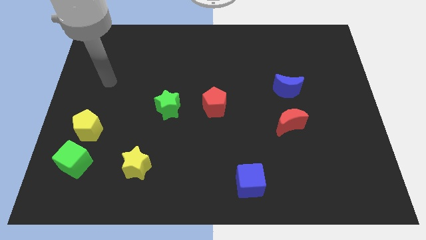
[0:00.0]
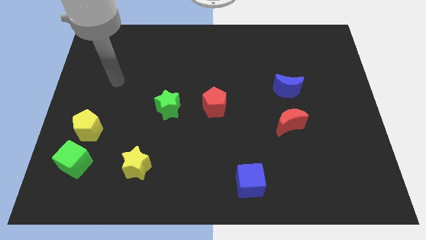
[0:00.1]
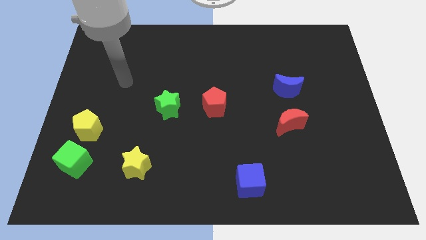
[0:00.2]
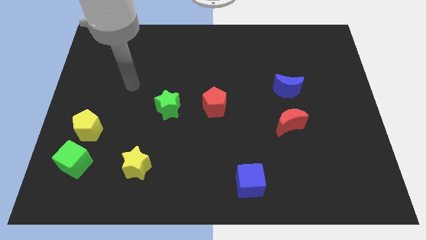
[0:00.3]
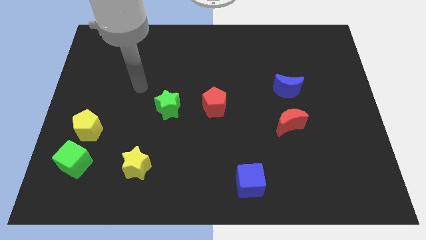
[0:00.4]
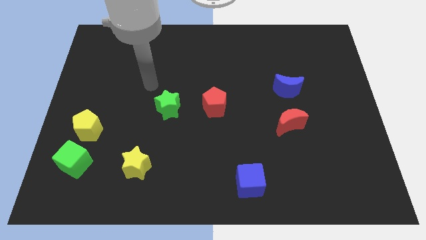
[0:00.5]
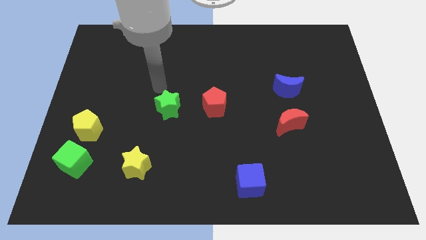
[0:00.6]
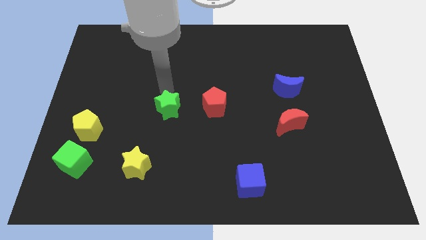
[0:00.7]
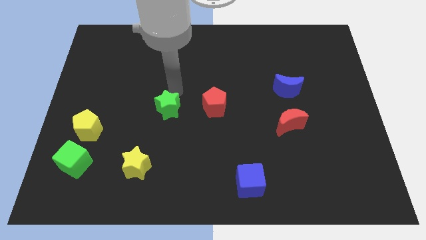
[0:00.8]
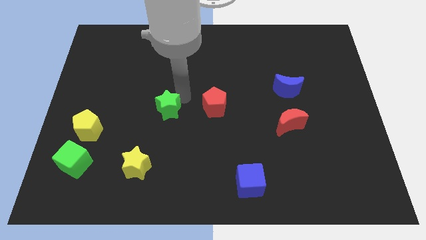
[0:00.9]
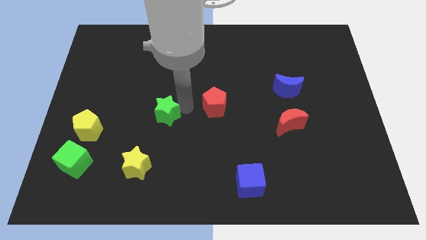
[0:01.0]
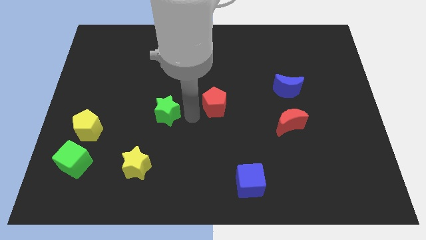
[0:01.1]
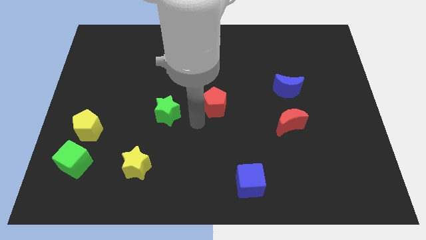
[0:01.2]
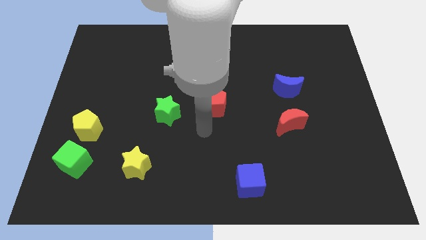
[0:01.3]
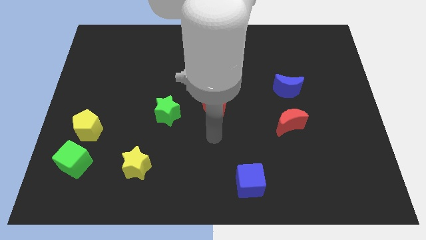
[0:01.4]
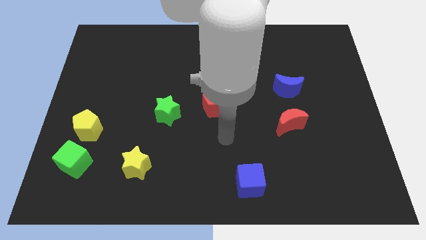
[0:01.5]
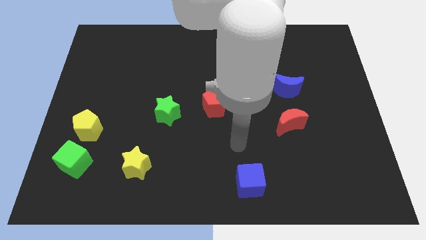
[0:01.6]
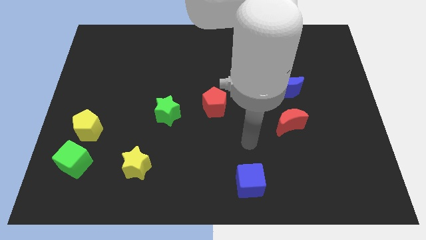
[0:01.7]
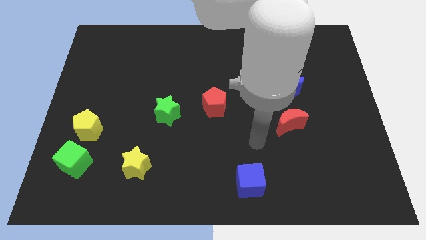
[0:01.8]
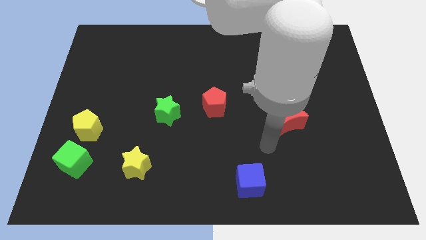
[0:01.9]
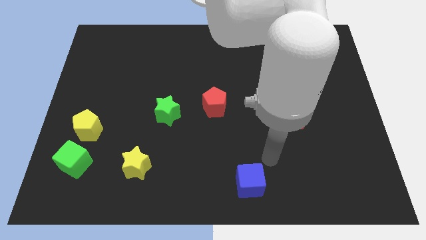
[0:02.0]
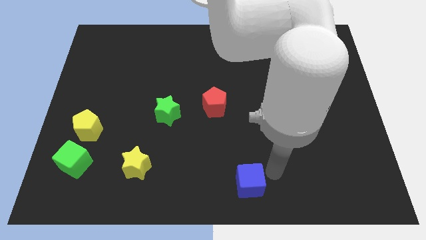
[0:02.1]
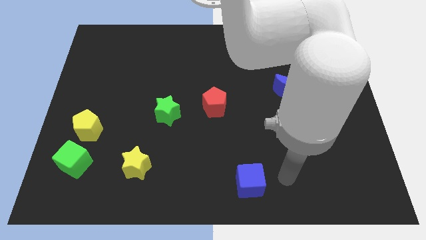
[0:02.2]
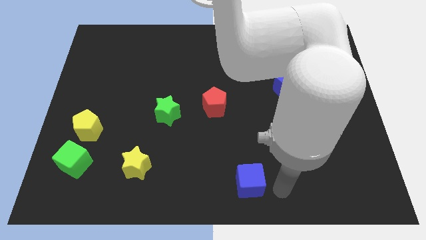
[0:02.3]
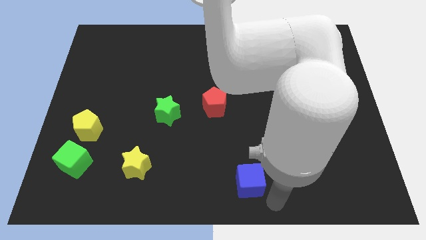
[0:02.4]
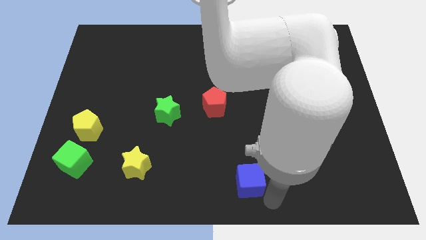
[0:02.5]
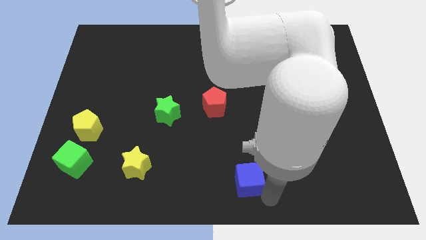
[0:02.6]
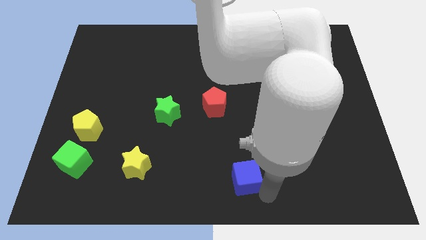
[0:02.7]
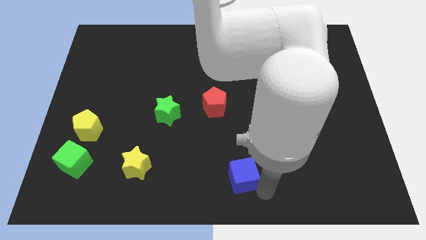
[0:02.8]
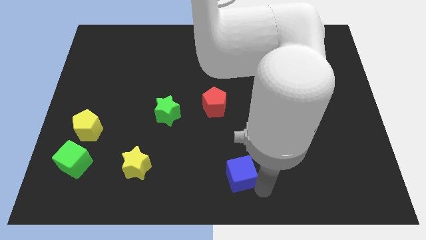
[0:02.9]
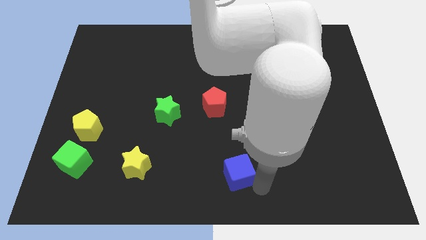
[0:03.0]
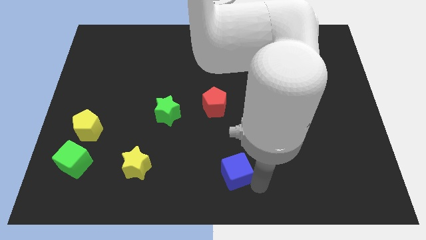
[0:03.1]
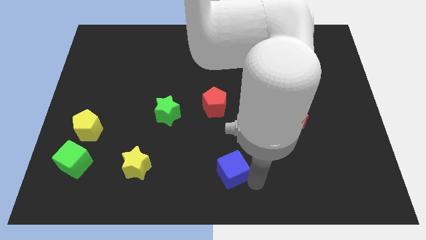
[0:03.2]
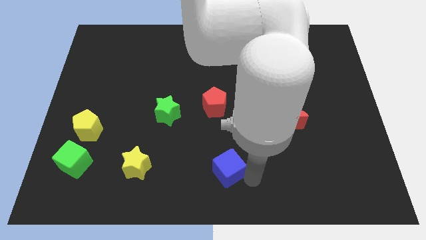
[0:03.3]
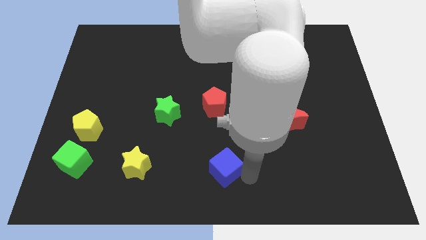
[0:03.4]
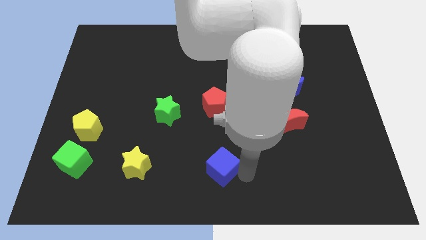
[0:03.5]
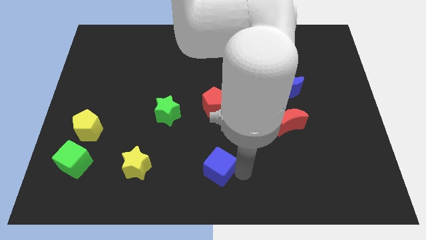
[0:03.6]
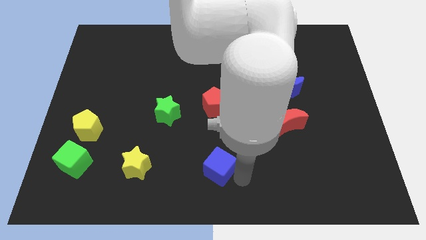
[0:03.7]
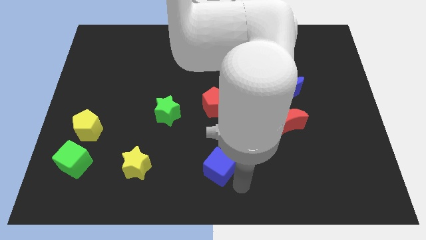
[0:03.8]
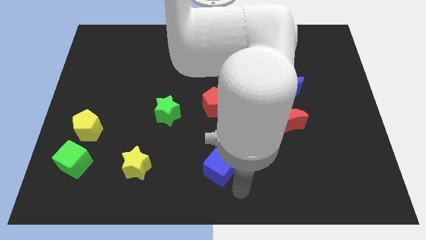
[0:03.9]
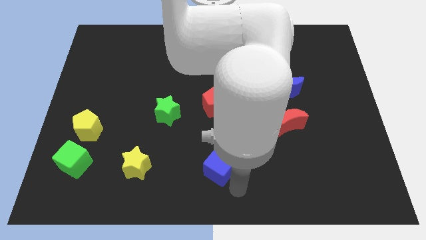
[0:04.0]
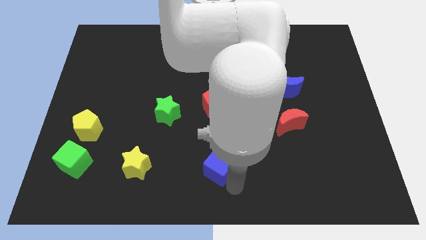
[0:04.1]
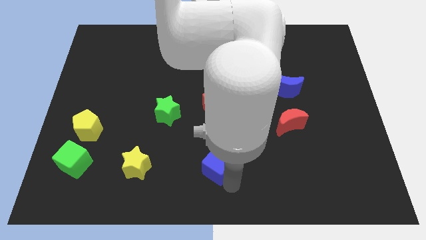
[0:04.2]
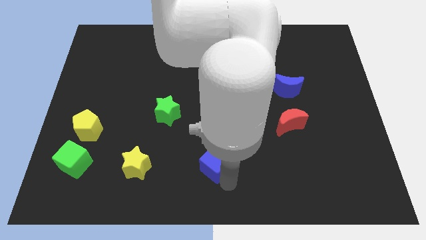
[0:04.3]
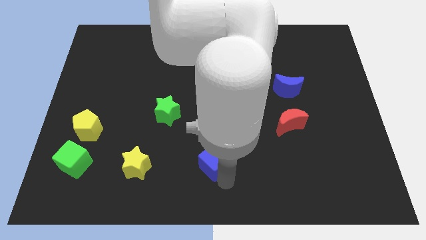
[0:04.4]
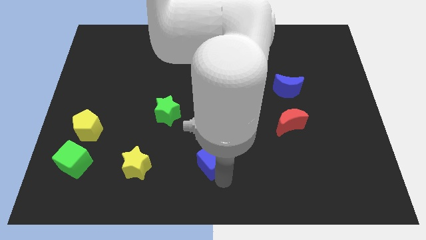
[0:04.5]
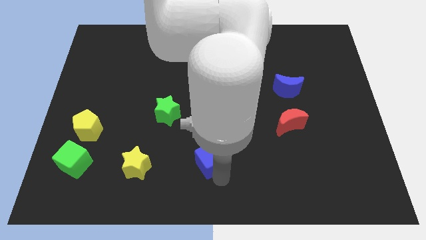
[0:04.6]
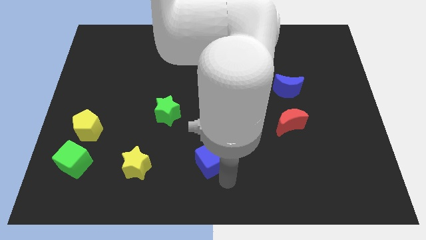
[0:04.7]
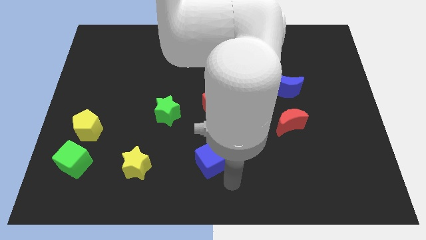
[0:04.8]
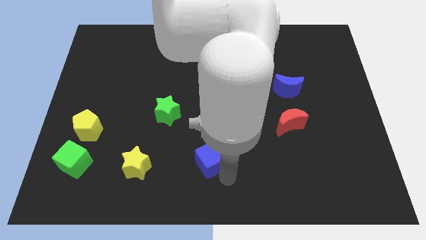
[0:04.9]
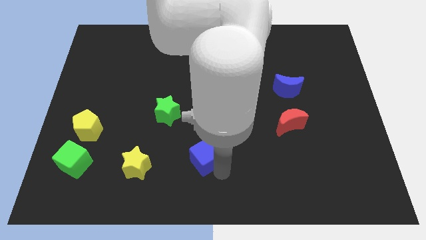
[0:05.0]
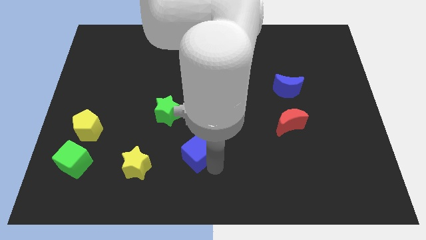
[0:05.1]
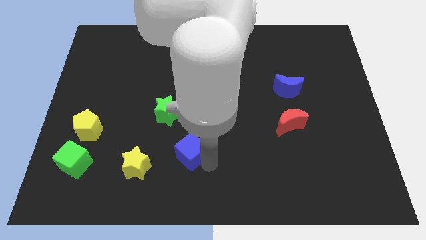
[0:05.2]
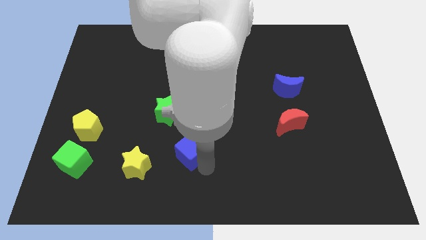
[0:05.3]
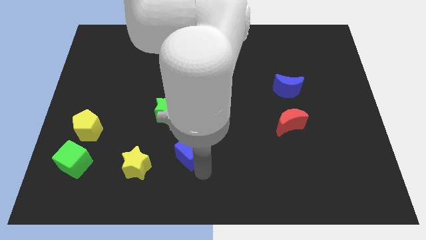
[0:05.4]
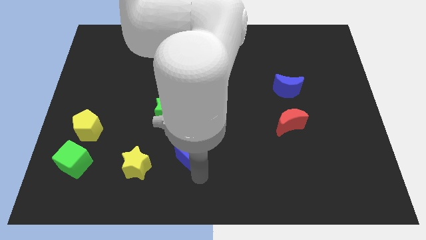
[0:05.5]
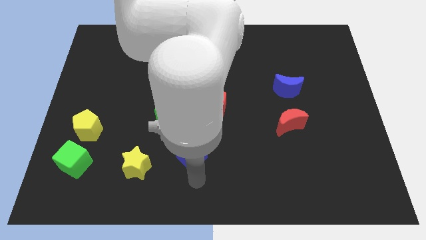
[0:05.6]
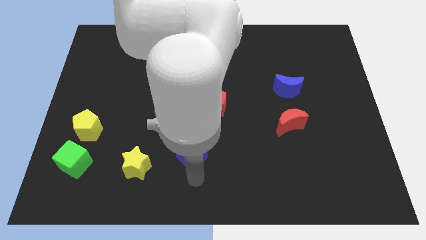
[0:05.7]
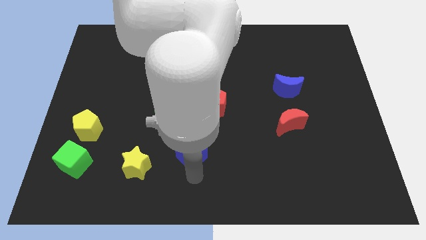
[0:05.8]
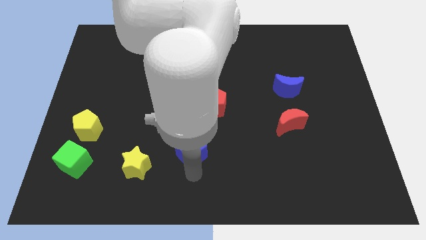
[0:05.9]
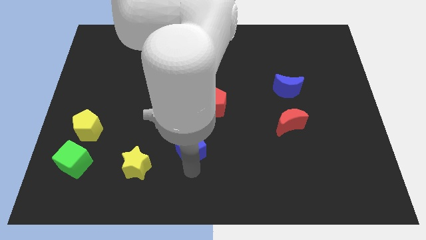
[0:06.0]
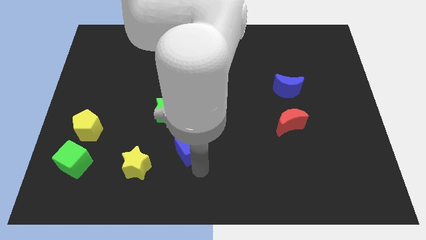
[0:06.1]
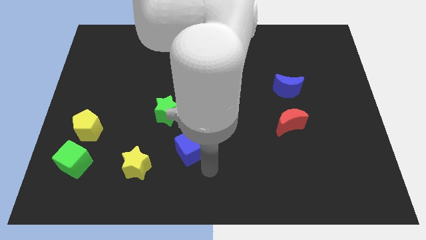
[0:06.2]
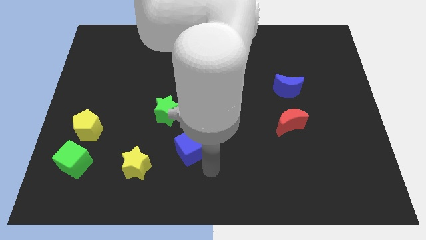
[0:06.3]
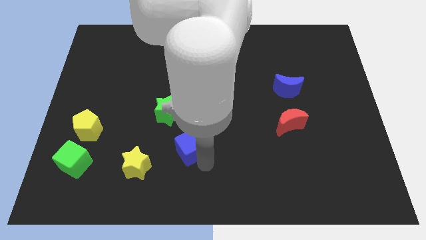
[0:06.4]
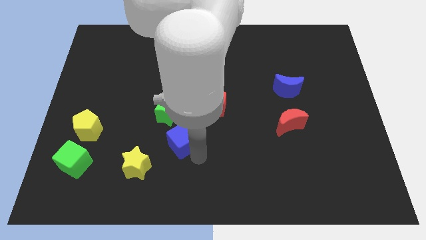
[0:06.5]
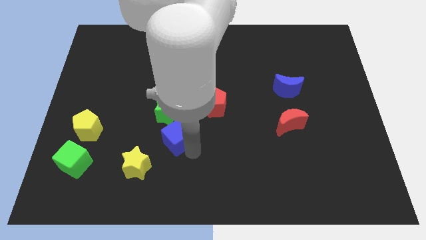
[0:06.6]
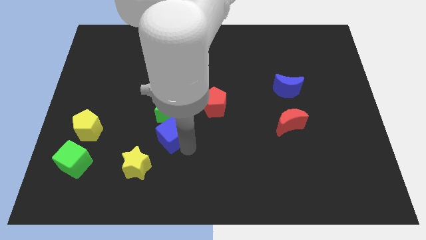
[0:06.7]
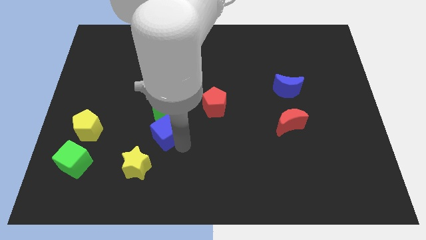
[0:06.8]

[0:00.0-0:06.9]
move the blue cube diagonally upwards and left

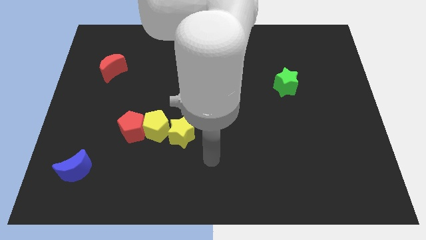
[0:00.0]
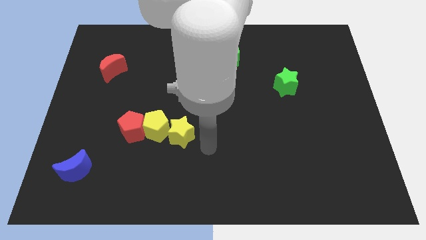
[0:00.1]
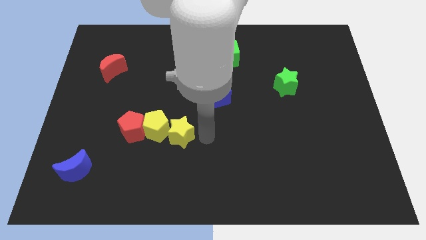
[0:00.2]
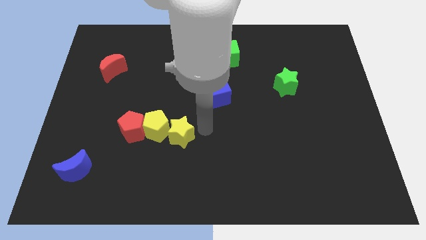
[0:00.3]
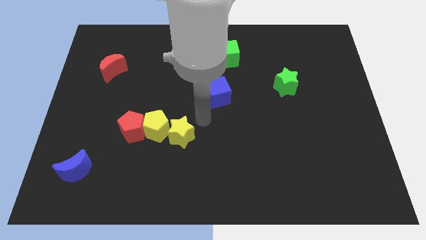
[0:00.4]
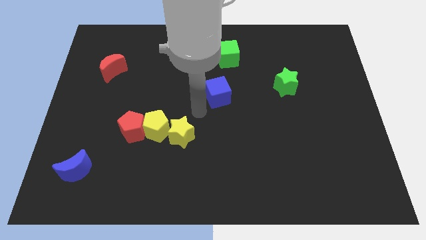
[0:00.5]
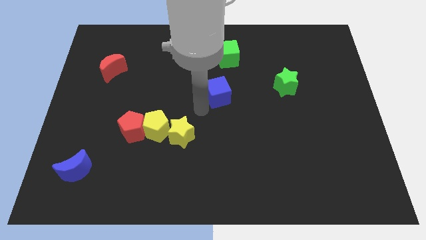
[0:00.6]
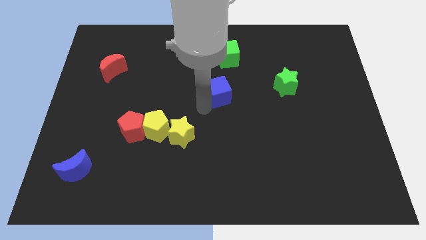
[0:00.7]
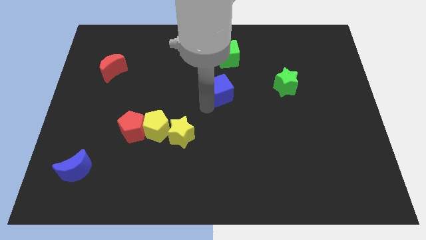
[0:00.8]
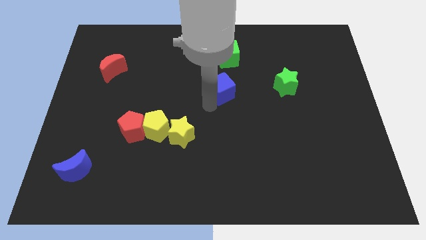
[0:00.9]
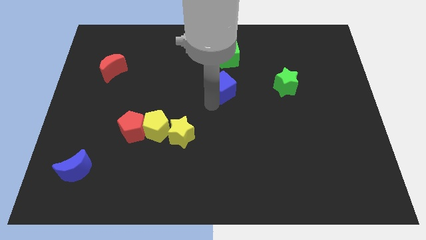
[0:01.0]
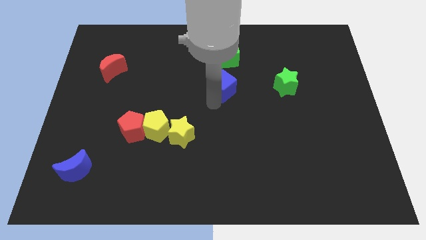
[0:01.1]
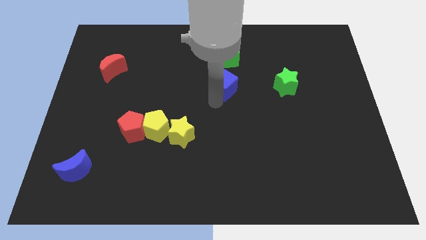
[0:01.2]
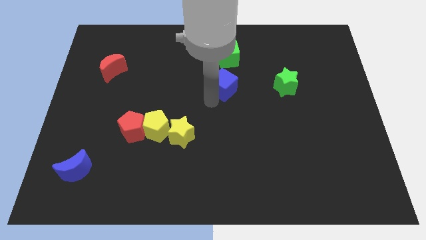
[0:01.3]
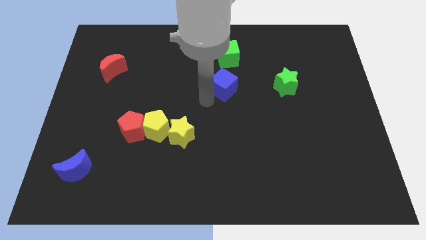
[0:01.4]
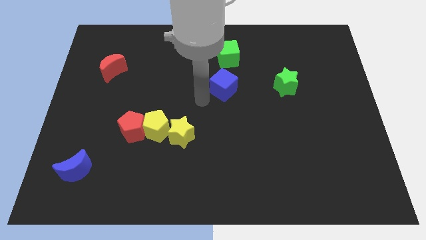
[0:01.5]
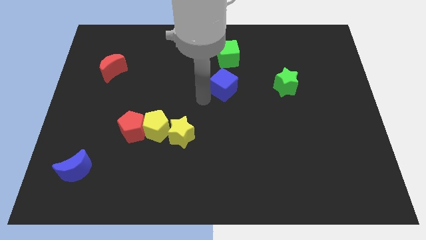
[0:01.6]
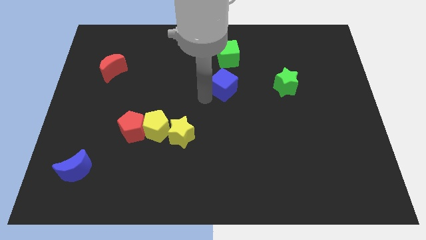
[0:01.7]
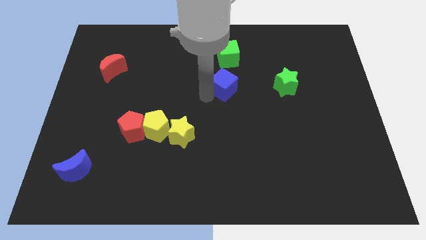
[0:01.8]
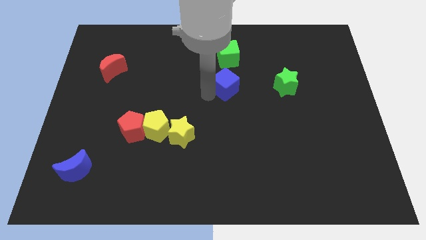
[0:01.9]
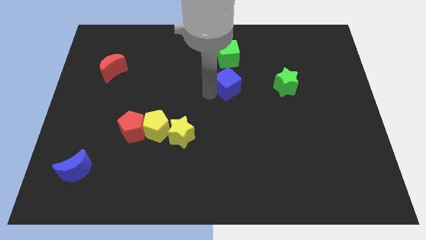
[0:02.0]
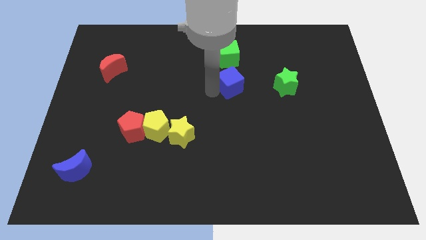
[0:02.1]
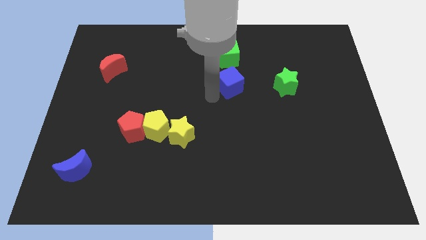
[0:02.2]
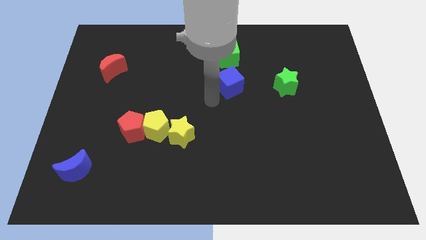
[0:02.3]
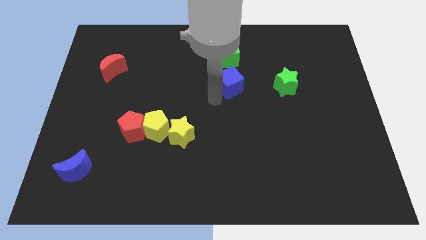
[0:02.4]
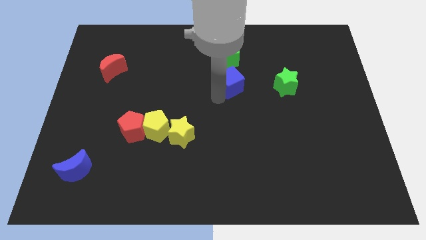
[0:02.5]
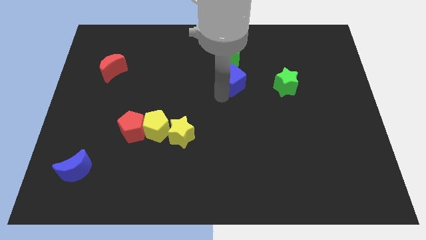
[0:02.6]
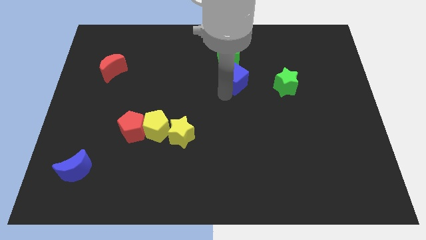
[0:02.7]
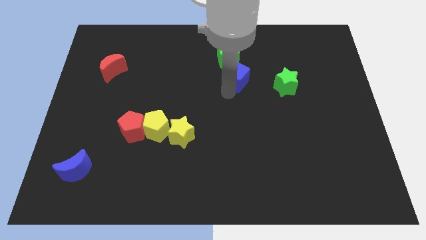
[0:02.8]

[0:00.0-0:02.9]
push the blue cube diagonally up and to the right slightly
